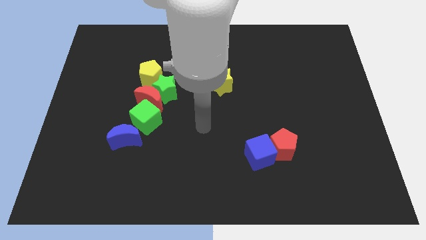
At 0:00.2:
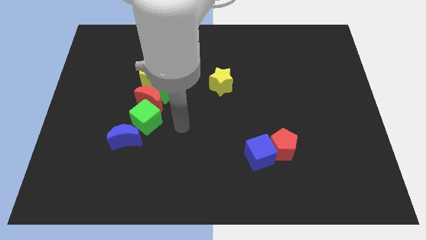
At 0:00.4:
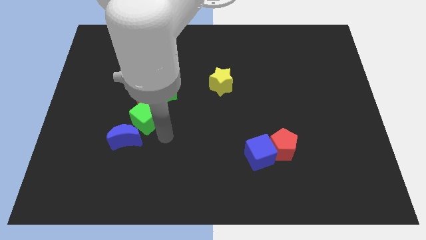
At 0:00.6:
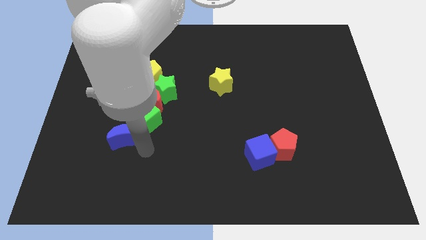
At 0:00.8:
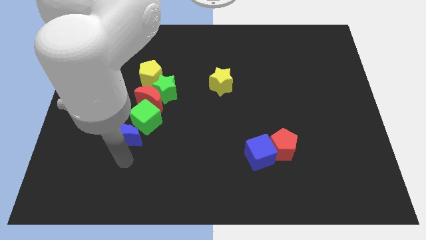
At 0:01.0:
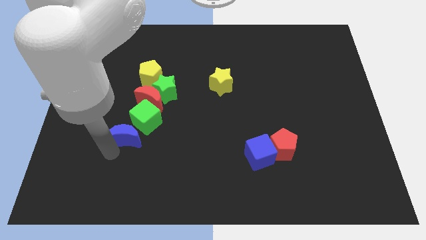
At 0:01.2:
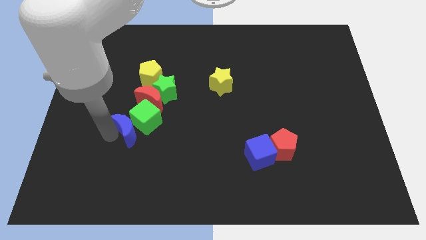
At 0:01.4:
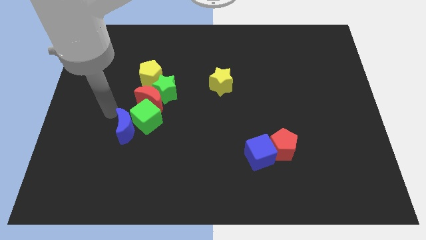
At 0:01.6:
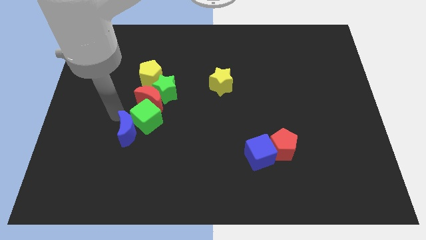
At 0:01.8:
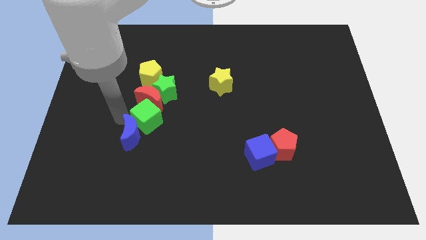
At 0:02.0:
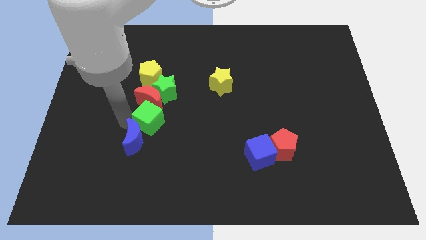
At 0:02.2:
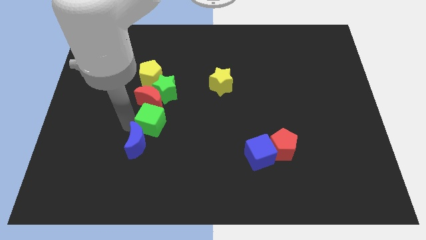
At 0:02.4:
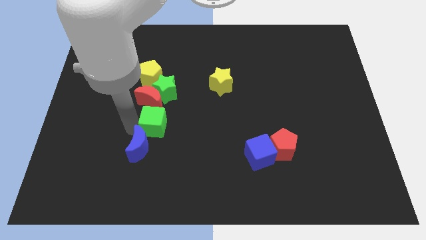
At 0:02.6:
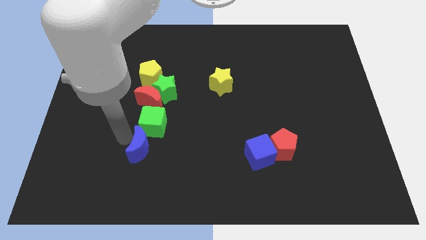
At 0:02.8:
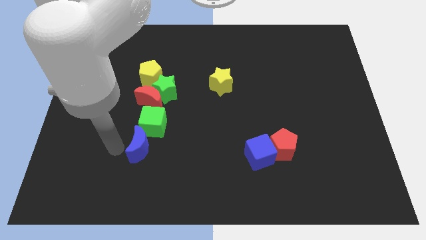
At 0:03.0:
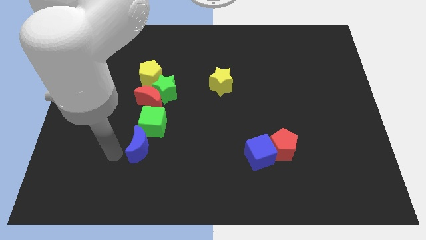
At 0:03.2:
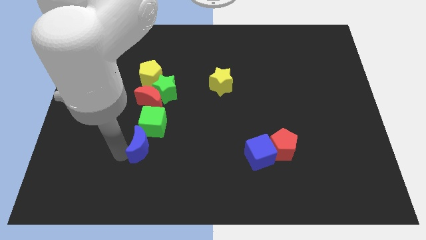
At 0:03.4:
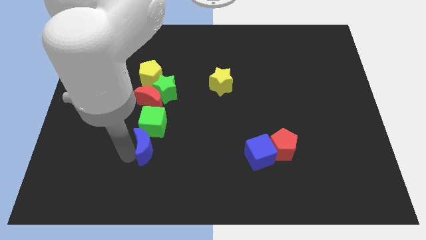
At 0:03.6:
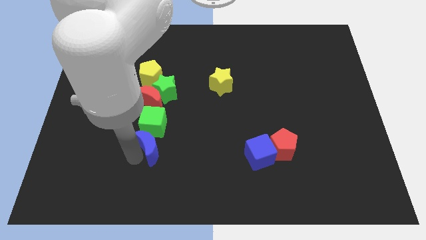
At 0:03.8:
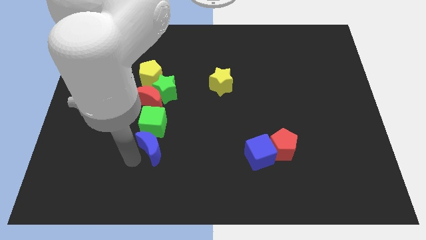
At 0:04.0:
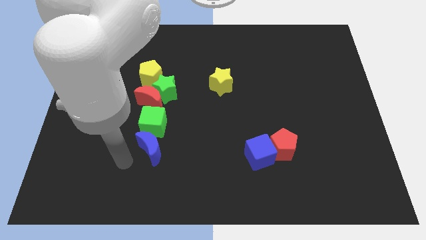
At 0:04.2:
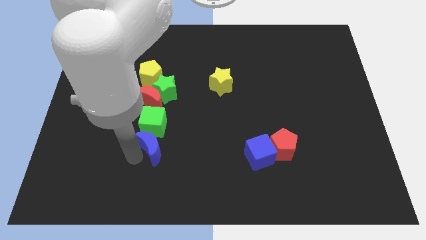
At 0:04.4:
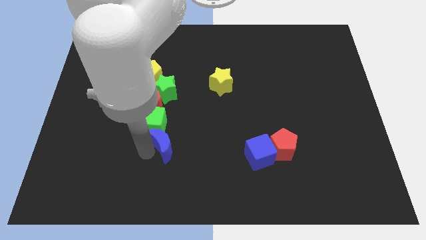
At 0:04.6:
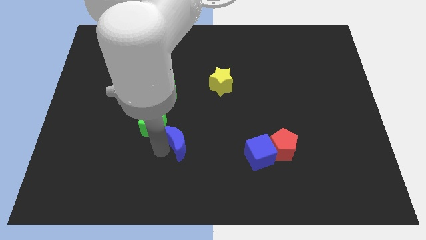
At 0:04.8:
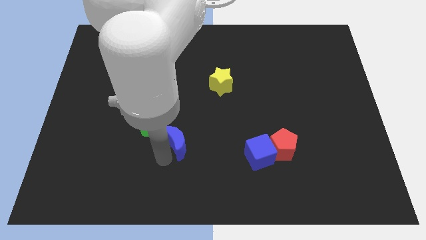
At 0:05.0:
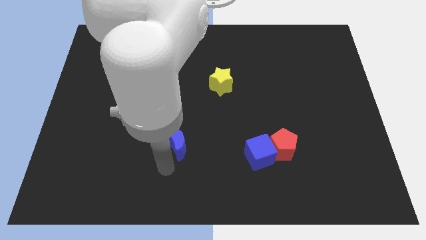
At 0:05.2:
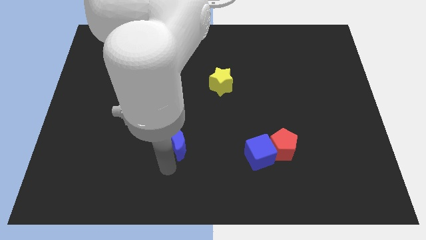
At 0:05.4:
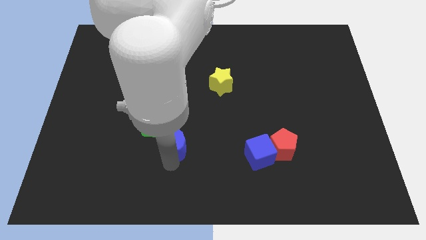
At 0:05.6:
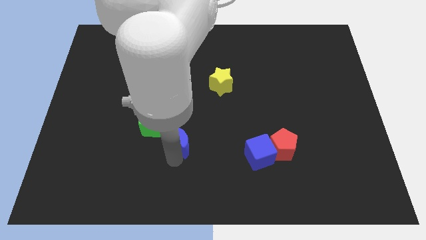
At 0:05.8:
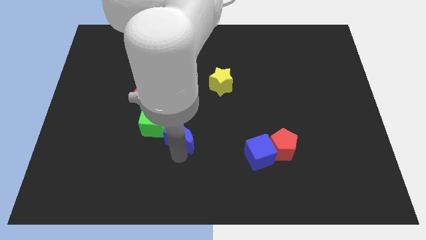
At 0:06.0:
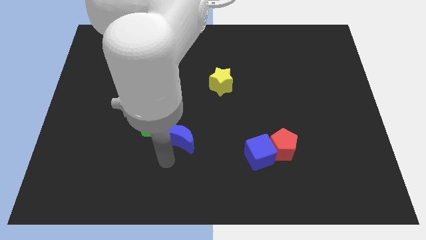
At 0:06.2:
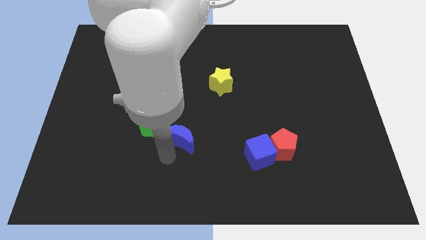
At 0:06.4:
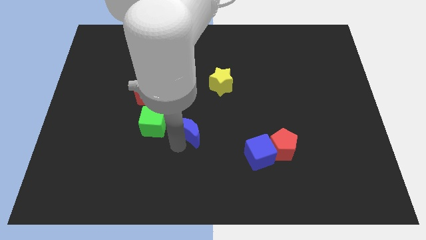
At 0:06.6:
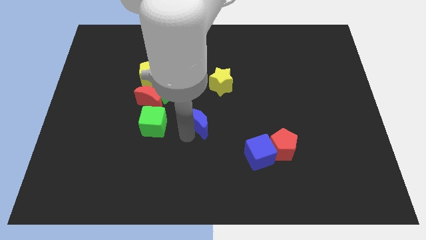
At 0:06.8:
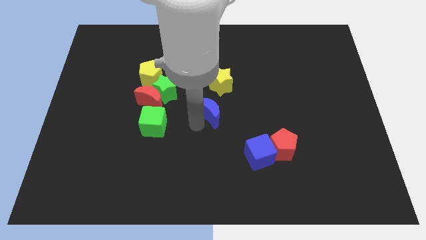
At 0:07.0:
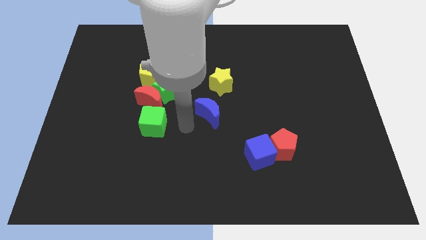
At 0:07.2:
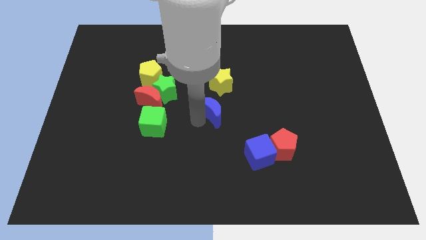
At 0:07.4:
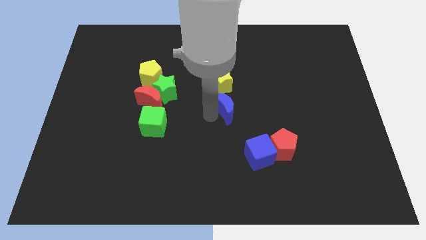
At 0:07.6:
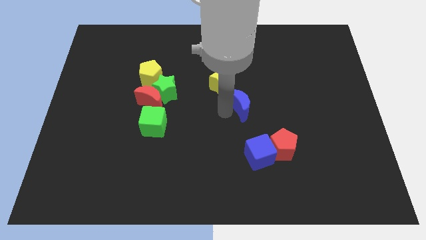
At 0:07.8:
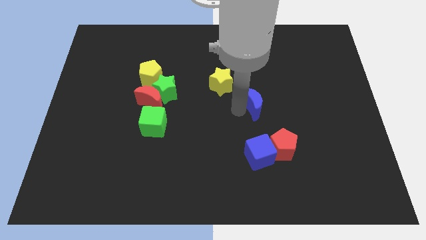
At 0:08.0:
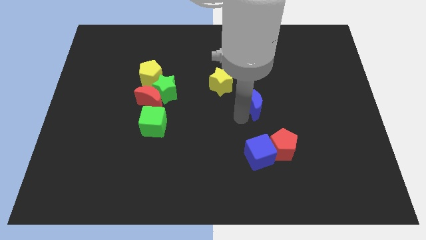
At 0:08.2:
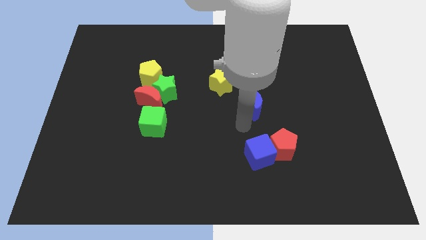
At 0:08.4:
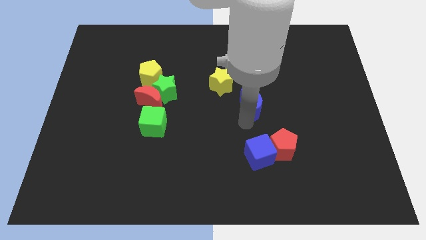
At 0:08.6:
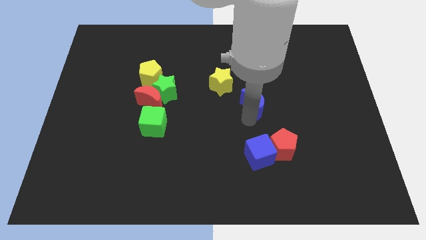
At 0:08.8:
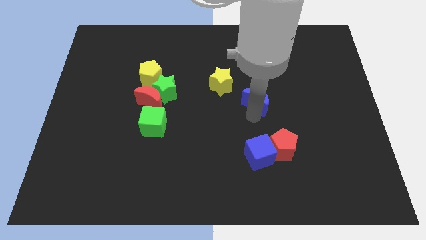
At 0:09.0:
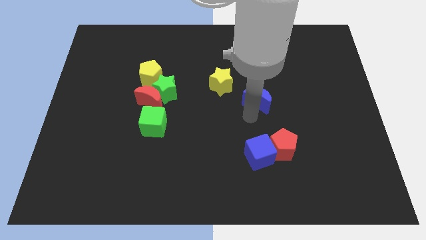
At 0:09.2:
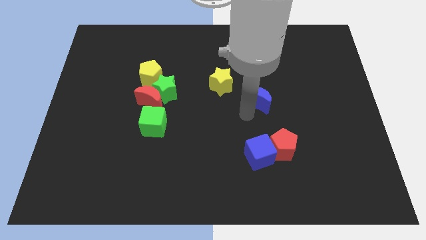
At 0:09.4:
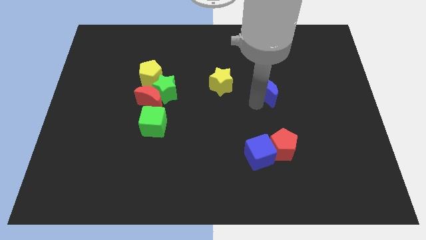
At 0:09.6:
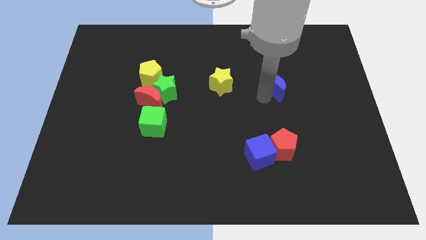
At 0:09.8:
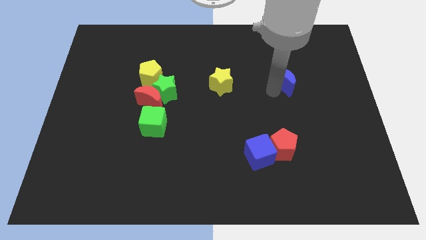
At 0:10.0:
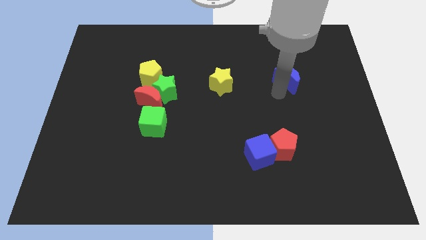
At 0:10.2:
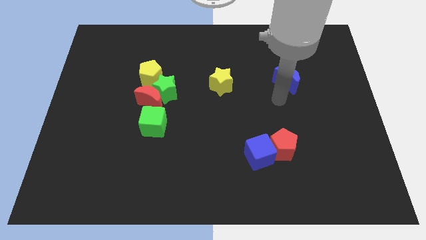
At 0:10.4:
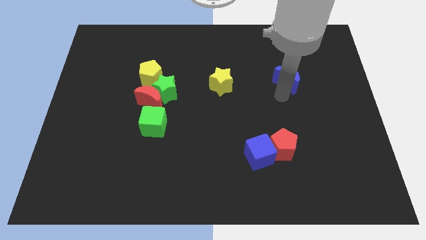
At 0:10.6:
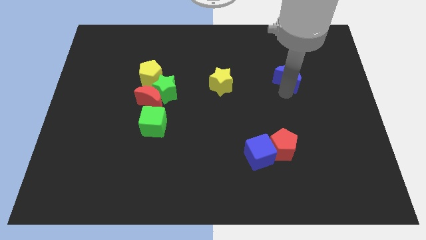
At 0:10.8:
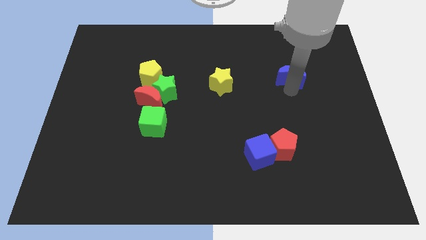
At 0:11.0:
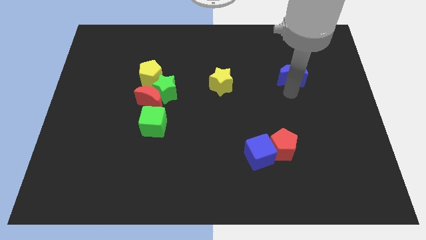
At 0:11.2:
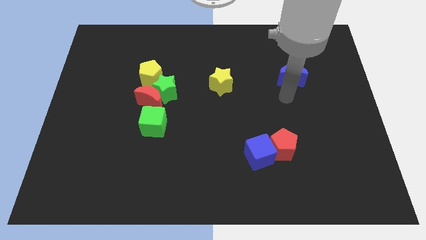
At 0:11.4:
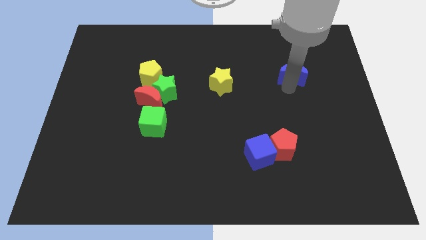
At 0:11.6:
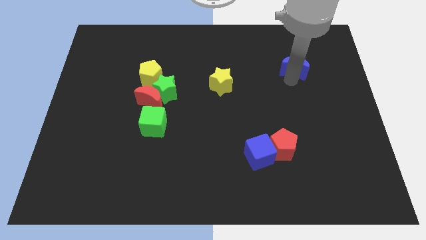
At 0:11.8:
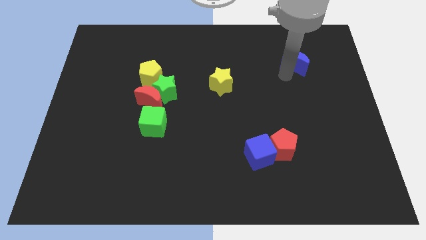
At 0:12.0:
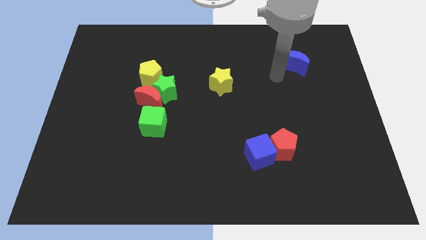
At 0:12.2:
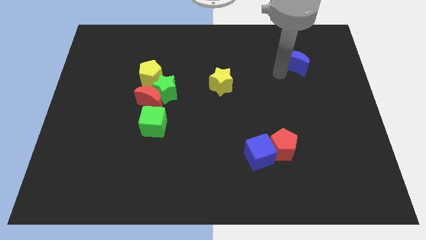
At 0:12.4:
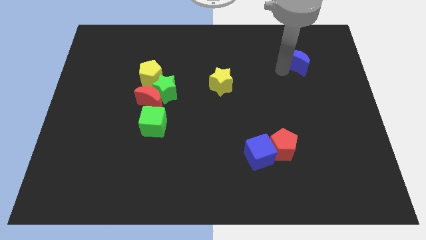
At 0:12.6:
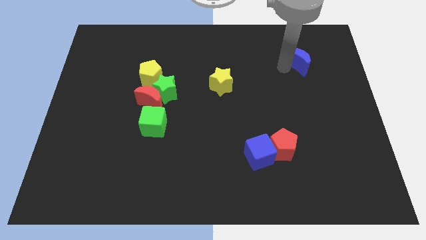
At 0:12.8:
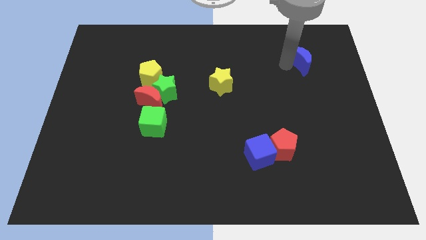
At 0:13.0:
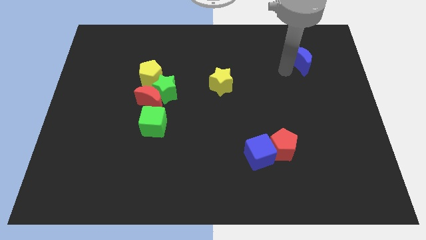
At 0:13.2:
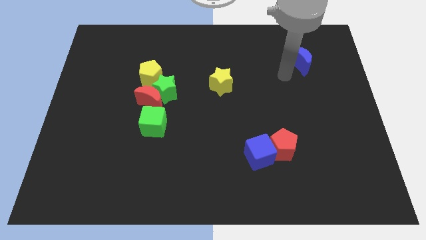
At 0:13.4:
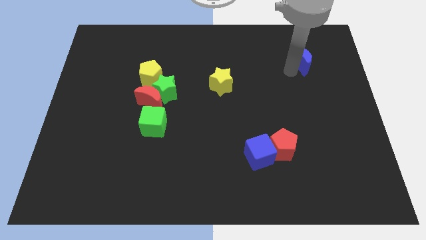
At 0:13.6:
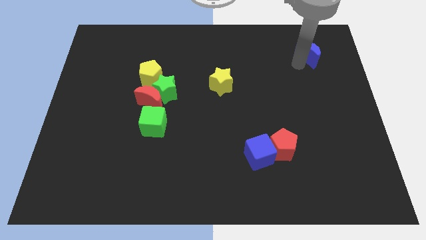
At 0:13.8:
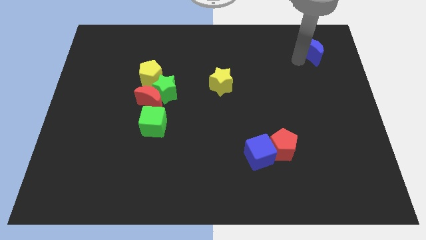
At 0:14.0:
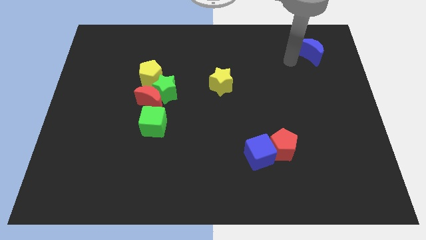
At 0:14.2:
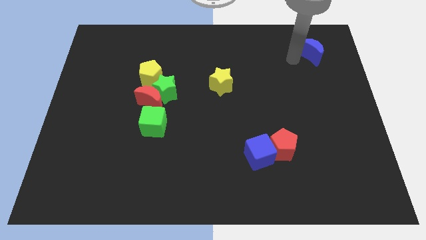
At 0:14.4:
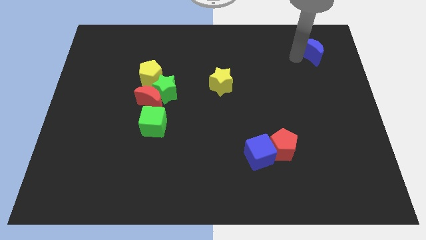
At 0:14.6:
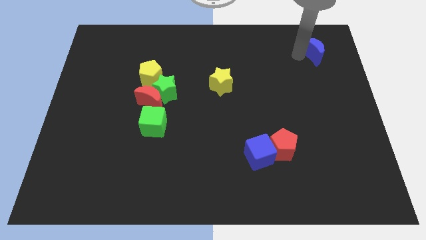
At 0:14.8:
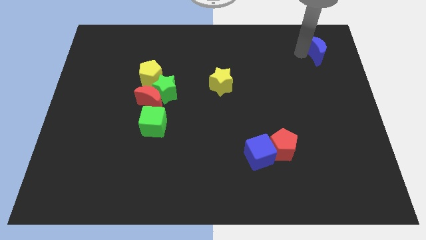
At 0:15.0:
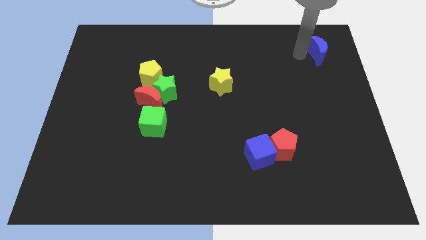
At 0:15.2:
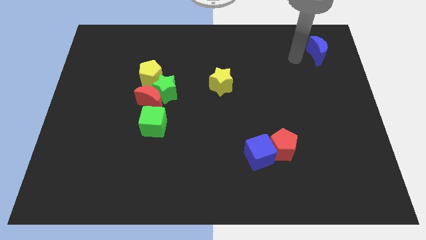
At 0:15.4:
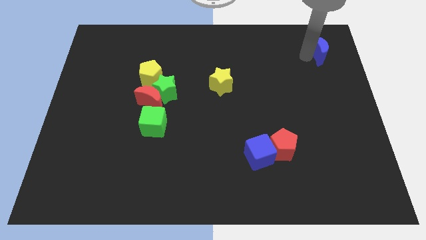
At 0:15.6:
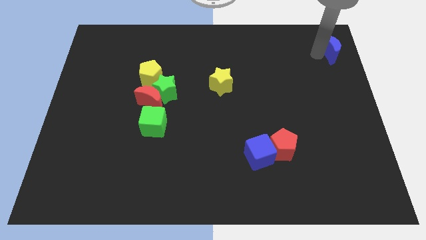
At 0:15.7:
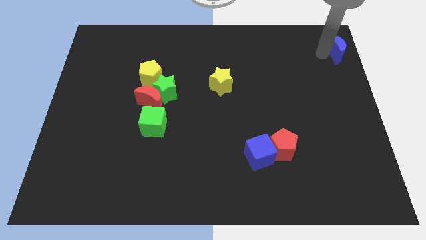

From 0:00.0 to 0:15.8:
move the blue moon to the top right
